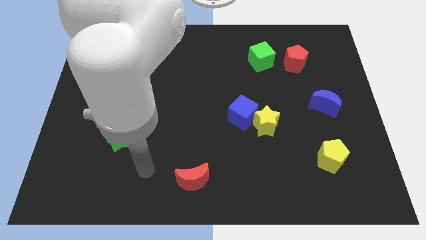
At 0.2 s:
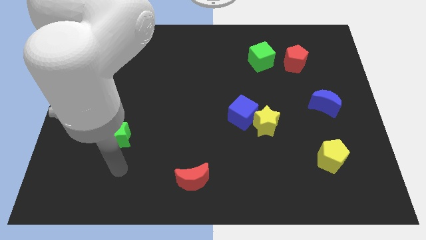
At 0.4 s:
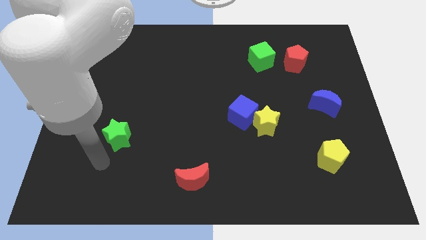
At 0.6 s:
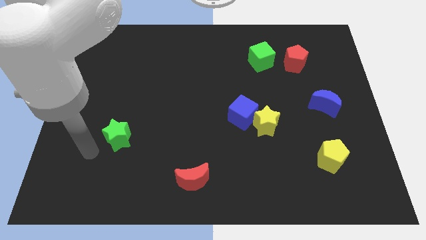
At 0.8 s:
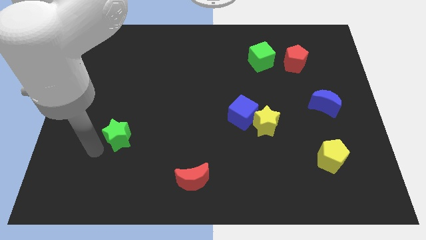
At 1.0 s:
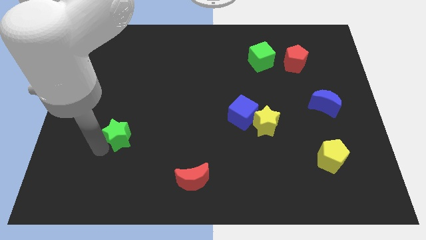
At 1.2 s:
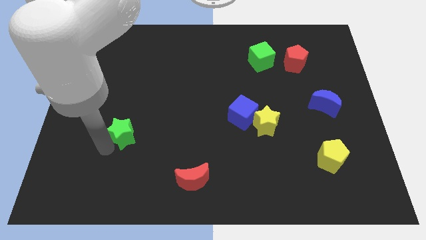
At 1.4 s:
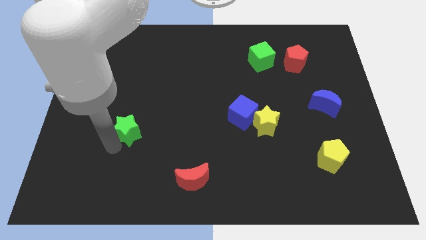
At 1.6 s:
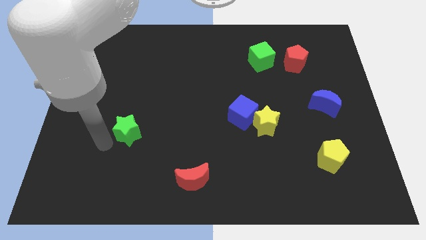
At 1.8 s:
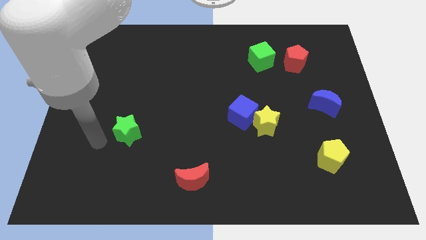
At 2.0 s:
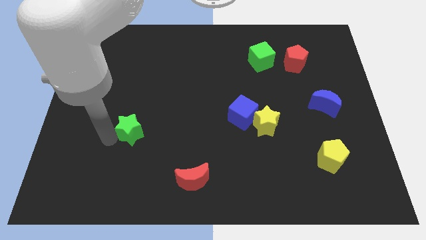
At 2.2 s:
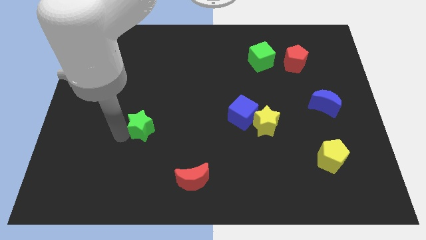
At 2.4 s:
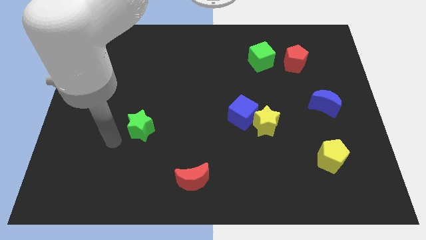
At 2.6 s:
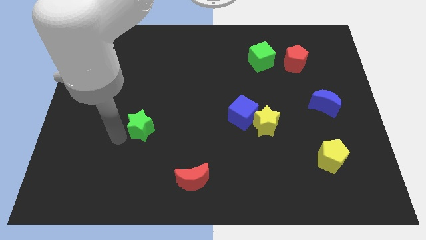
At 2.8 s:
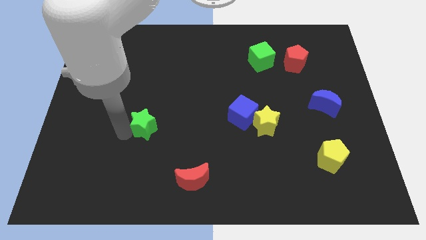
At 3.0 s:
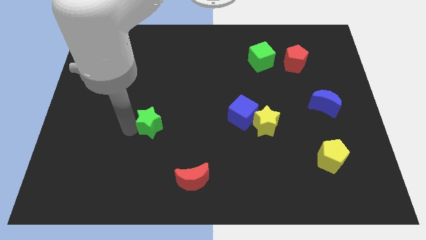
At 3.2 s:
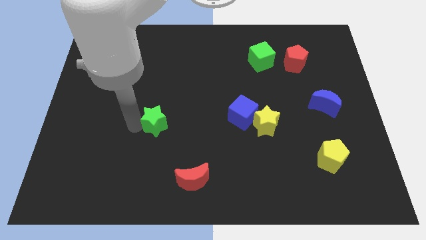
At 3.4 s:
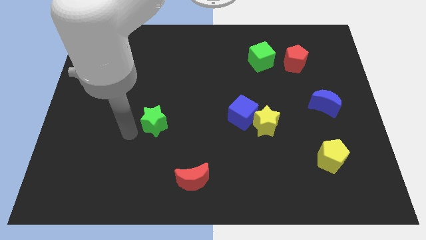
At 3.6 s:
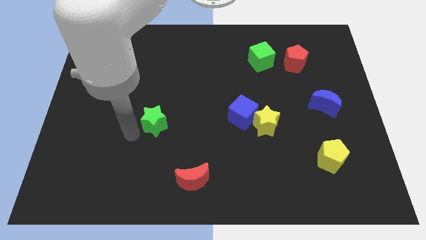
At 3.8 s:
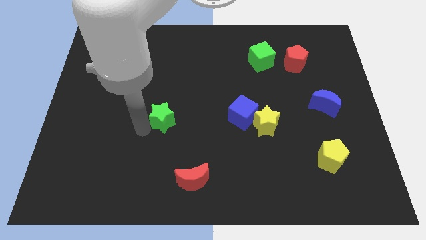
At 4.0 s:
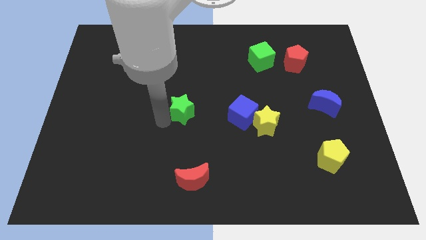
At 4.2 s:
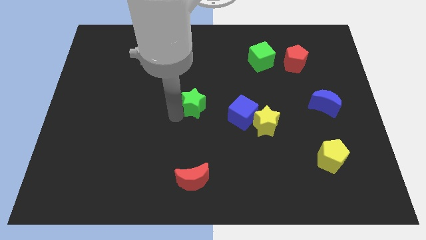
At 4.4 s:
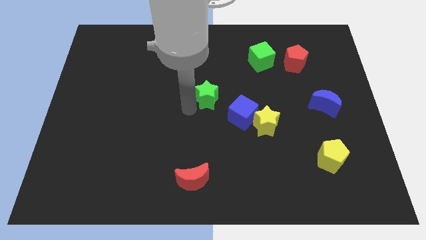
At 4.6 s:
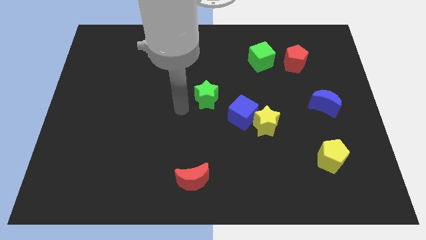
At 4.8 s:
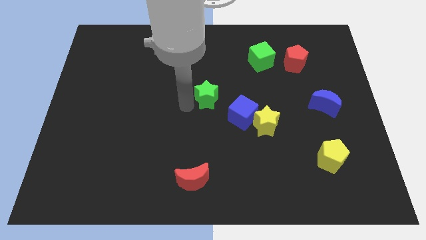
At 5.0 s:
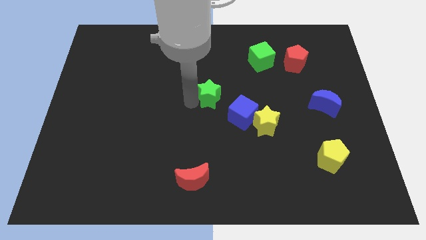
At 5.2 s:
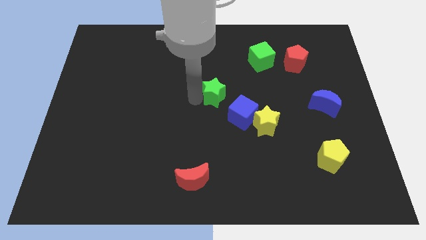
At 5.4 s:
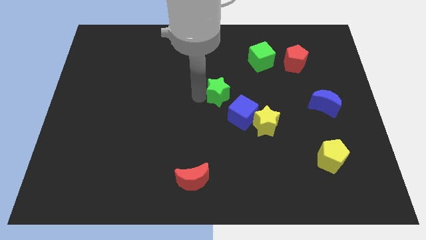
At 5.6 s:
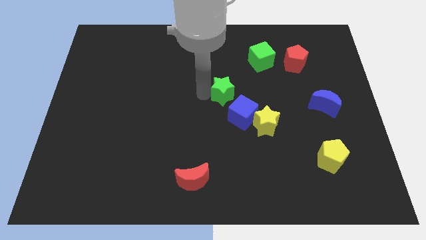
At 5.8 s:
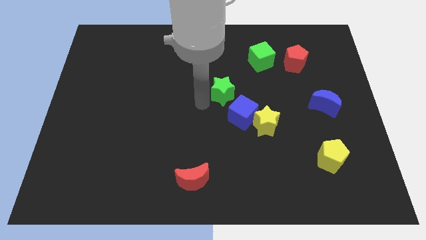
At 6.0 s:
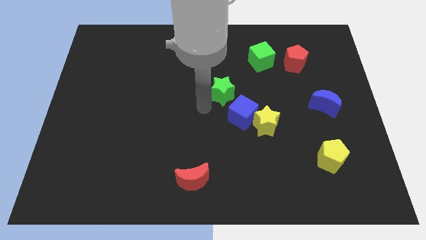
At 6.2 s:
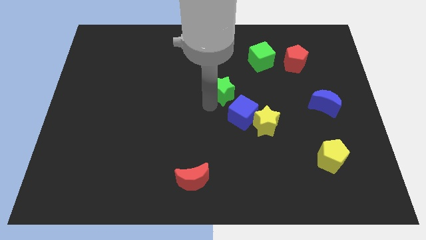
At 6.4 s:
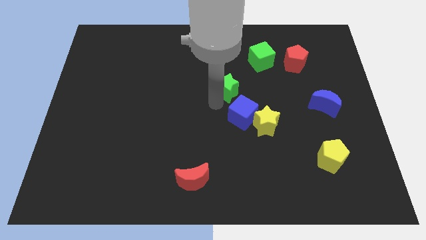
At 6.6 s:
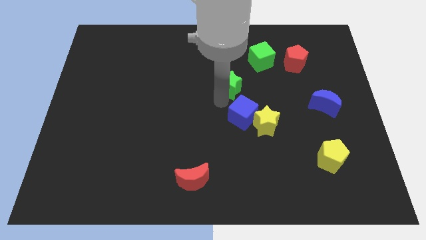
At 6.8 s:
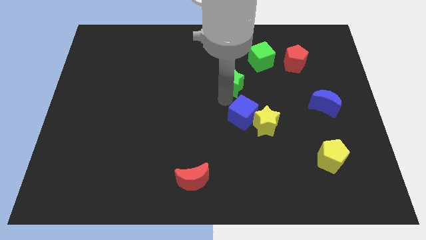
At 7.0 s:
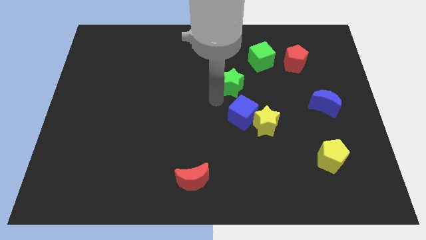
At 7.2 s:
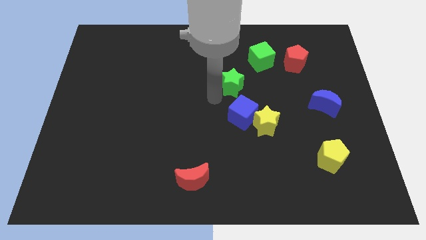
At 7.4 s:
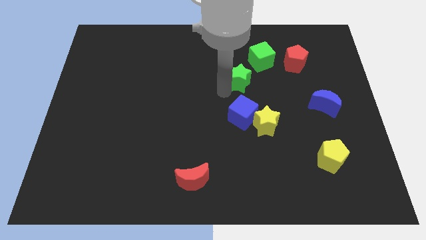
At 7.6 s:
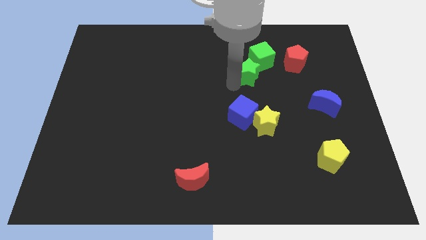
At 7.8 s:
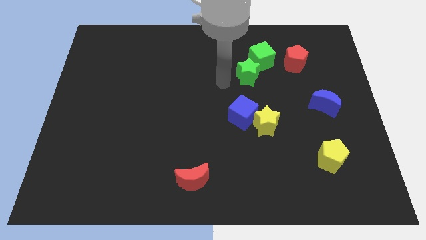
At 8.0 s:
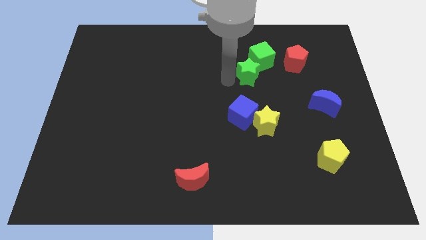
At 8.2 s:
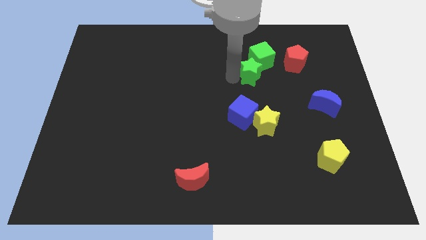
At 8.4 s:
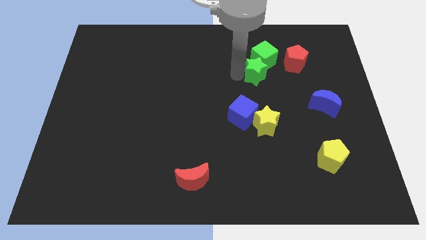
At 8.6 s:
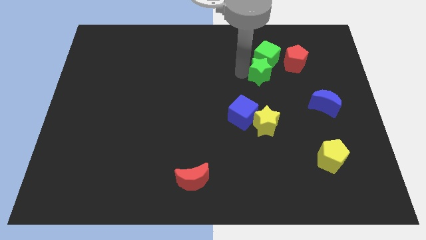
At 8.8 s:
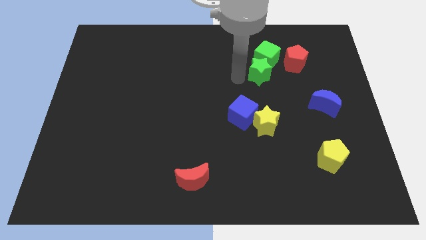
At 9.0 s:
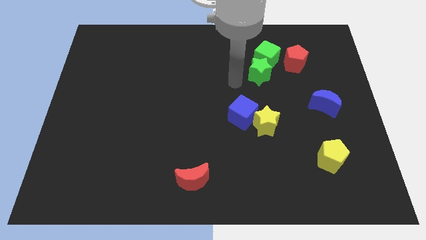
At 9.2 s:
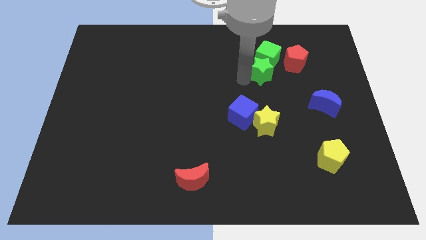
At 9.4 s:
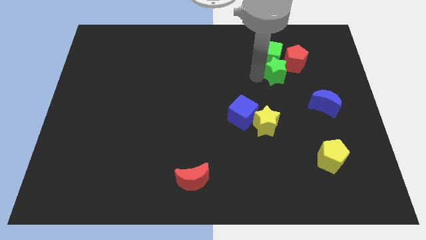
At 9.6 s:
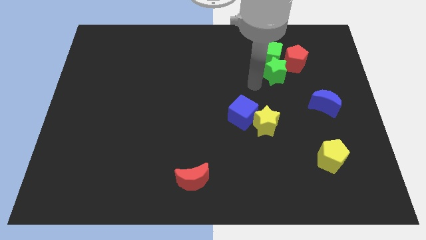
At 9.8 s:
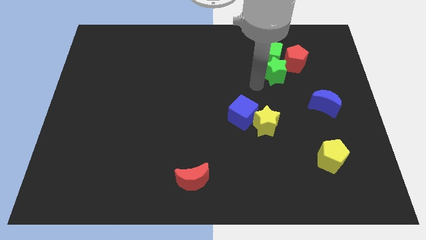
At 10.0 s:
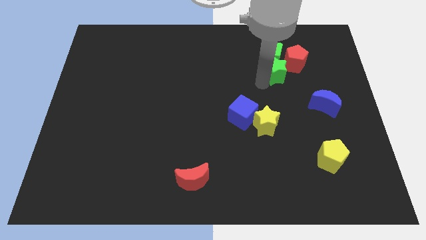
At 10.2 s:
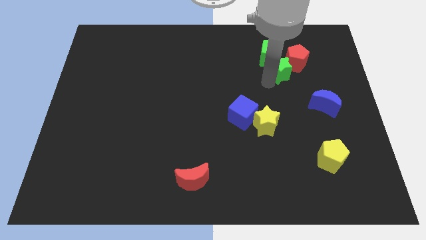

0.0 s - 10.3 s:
slide the green star to the red pentagon

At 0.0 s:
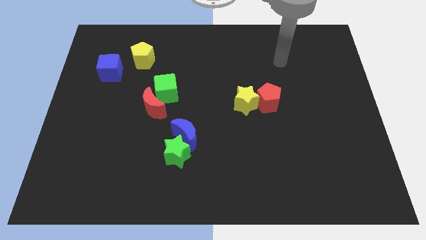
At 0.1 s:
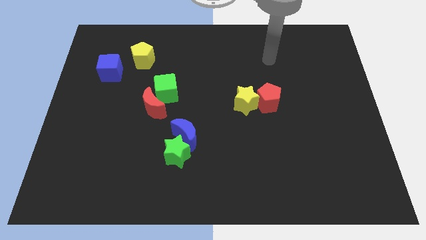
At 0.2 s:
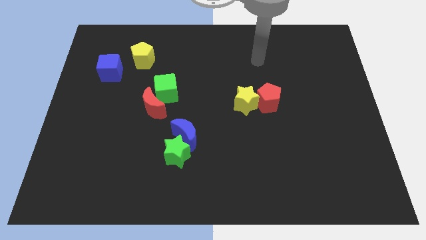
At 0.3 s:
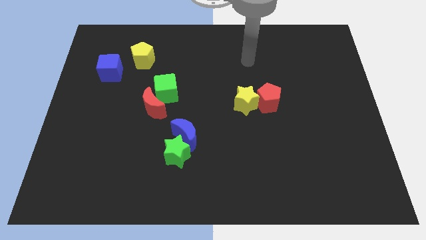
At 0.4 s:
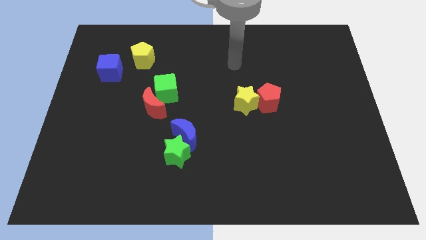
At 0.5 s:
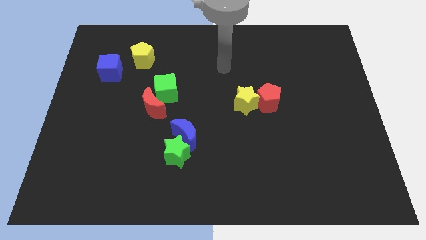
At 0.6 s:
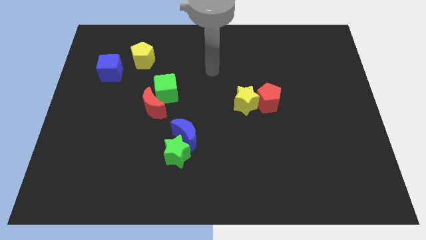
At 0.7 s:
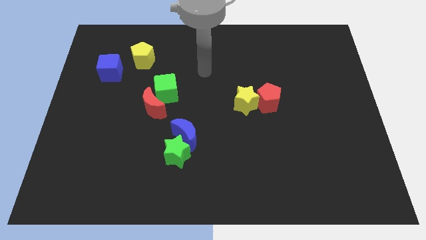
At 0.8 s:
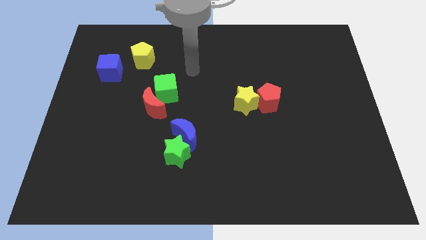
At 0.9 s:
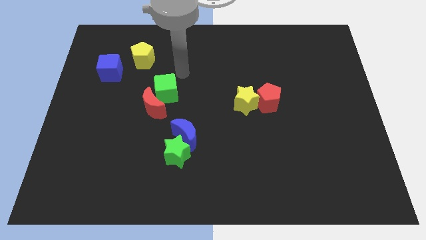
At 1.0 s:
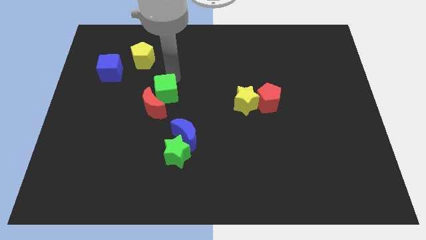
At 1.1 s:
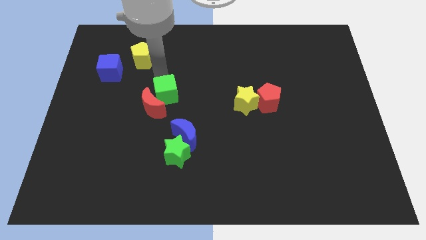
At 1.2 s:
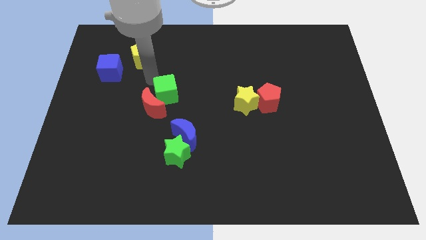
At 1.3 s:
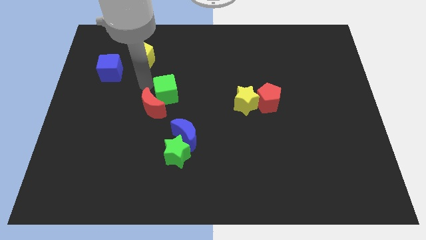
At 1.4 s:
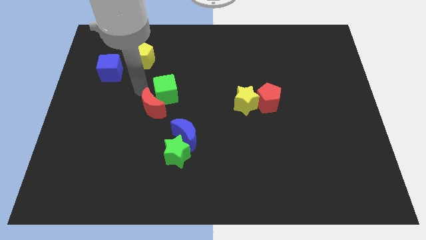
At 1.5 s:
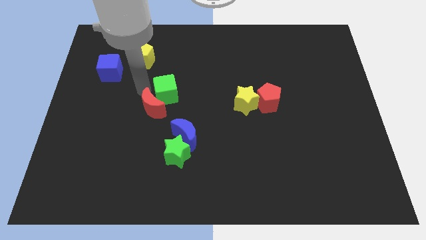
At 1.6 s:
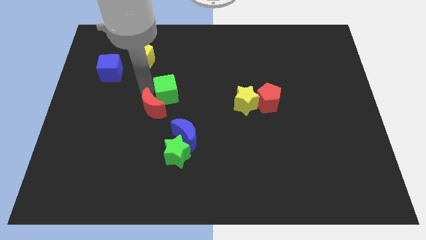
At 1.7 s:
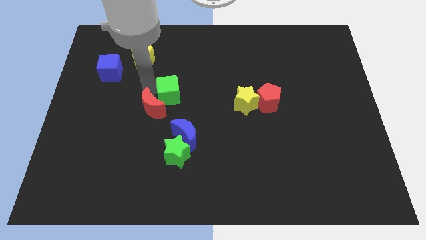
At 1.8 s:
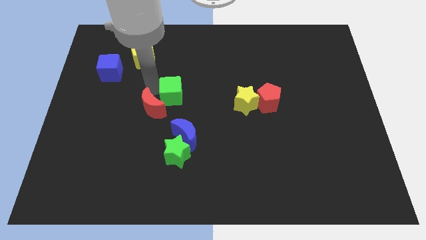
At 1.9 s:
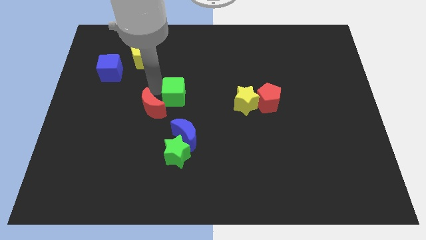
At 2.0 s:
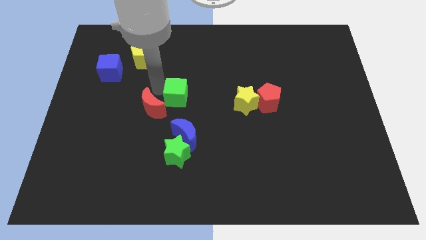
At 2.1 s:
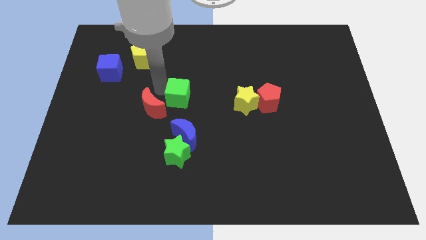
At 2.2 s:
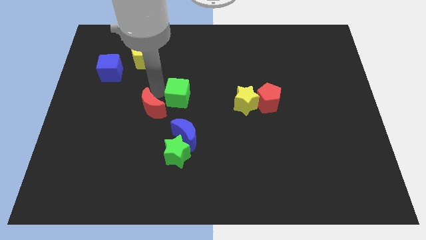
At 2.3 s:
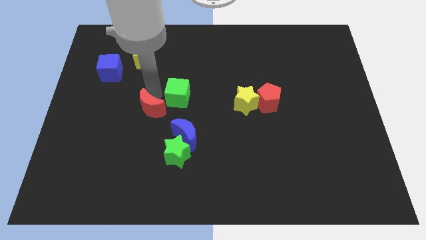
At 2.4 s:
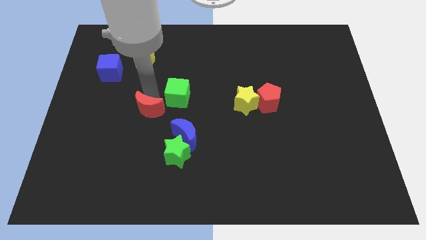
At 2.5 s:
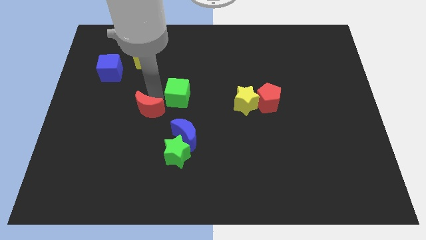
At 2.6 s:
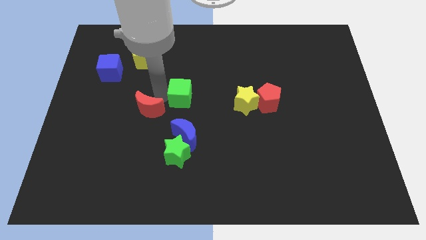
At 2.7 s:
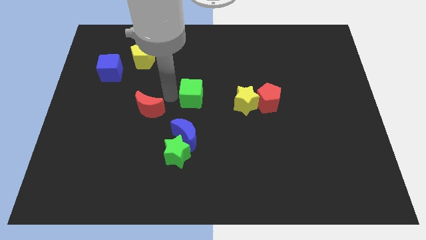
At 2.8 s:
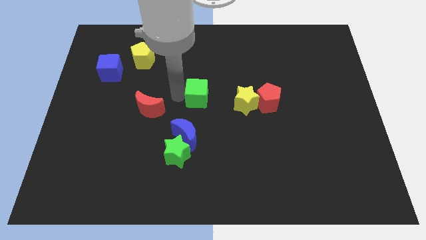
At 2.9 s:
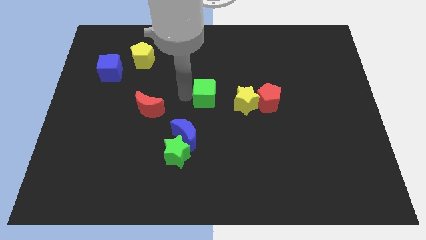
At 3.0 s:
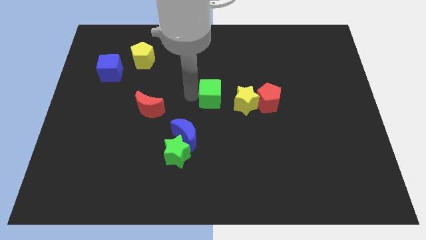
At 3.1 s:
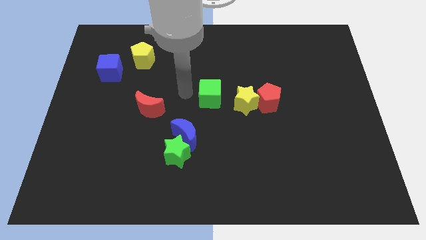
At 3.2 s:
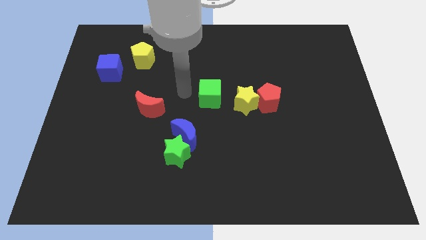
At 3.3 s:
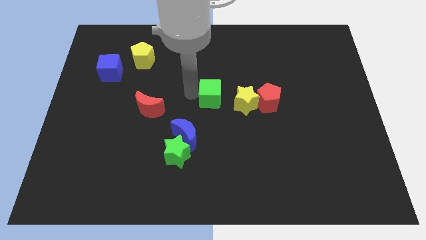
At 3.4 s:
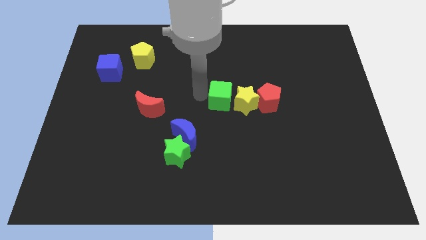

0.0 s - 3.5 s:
slide the green cube to the yellow star
